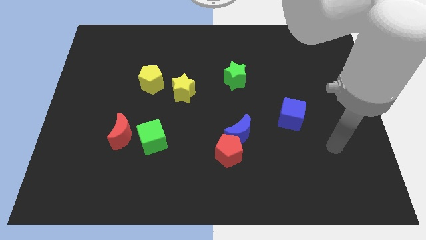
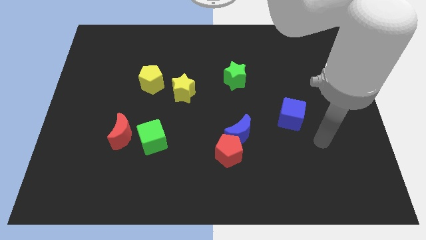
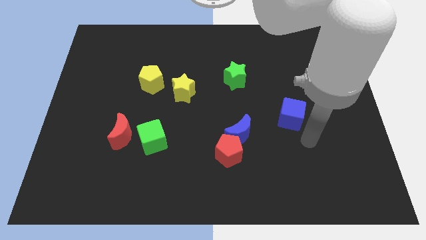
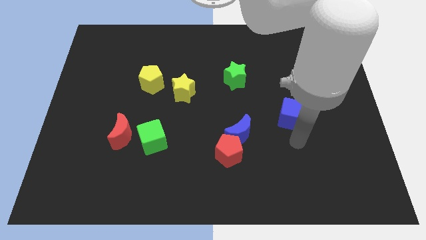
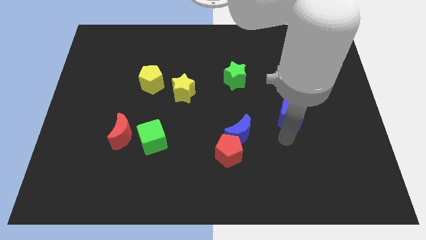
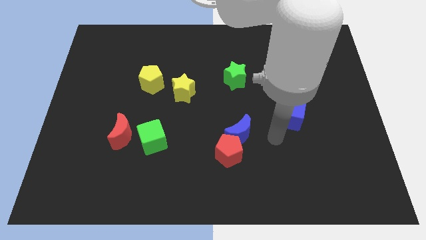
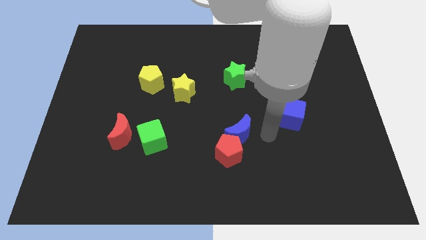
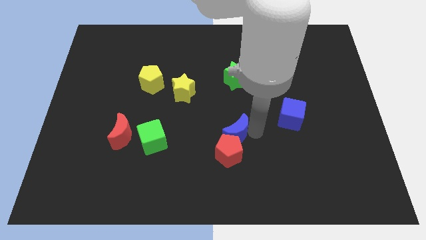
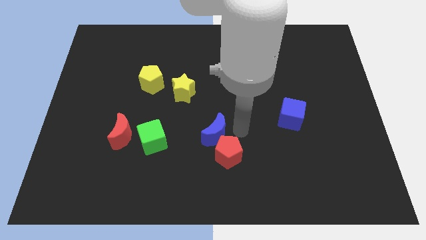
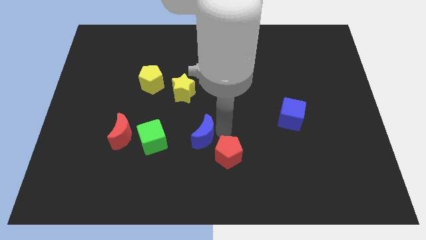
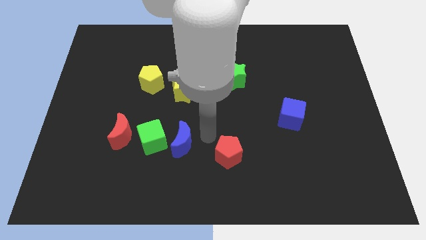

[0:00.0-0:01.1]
separate the red pentagon from the blue moon

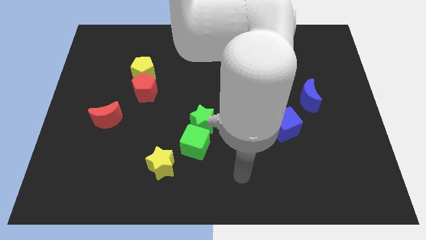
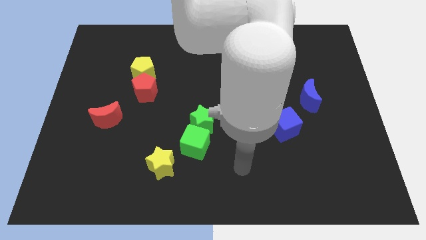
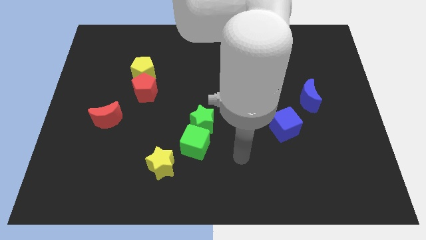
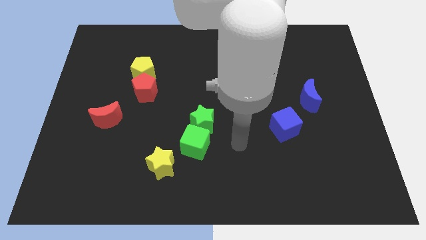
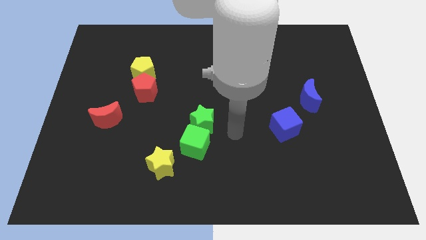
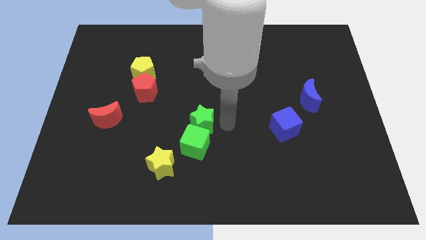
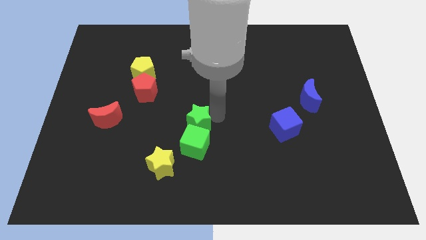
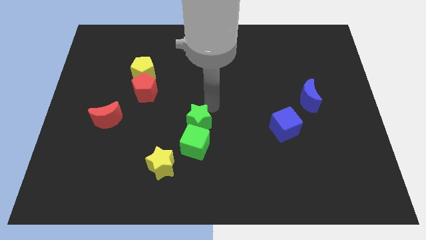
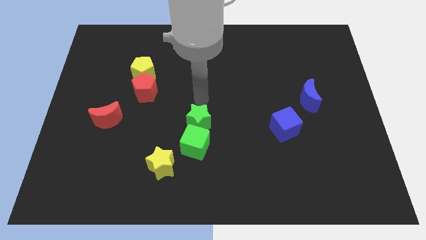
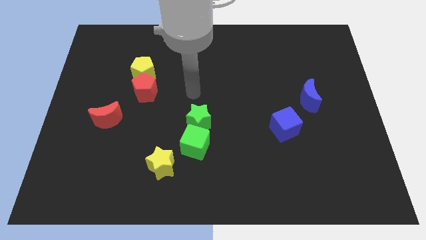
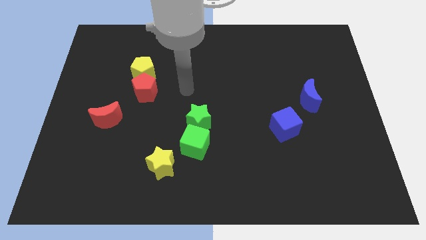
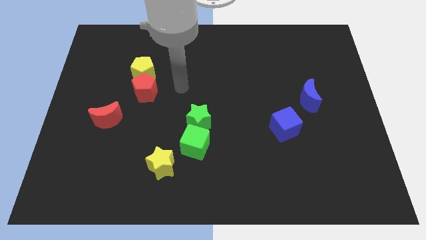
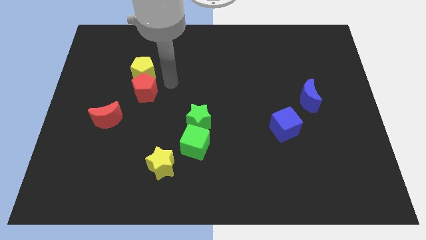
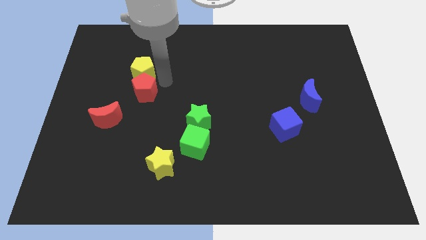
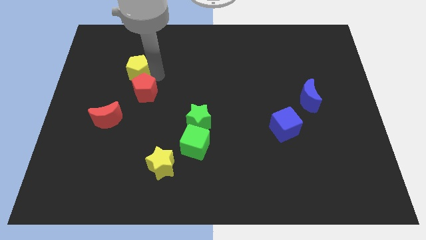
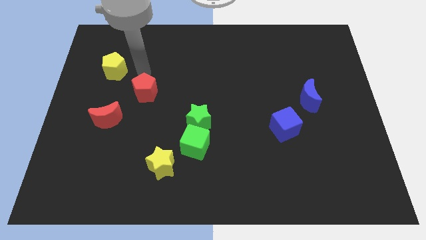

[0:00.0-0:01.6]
move the red pentagon away from the yellow pentagon

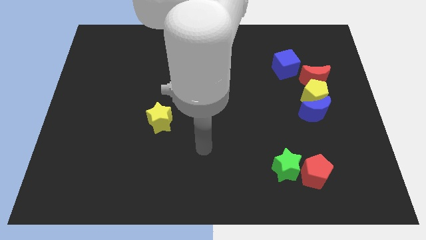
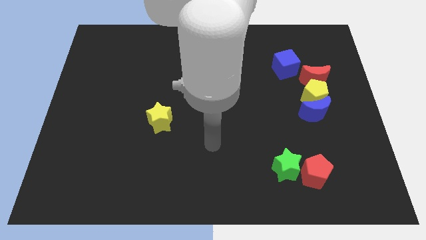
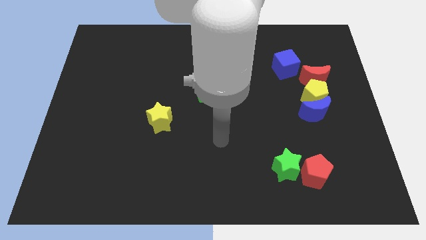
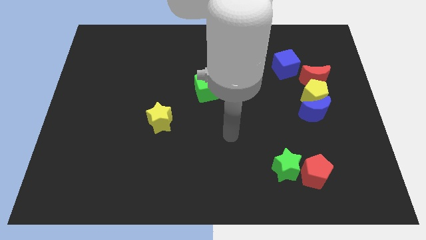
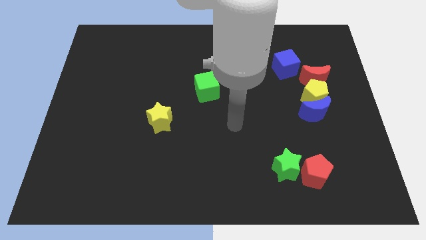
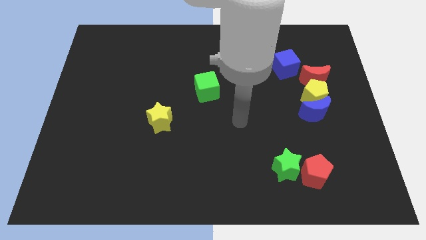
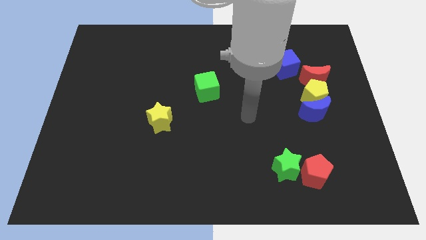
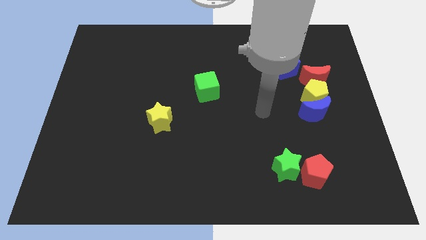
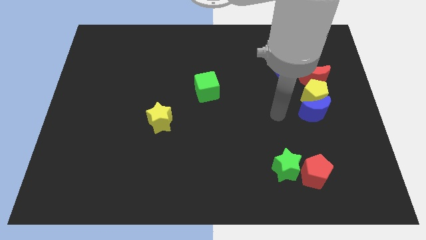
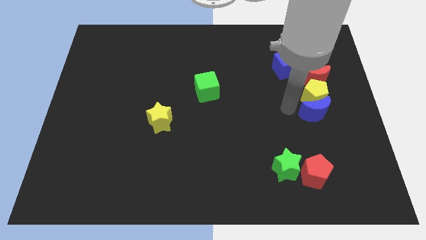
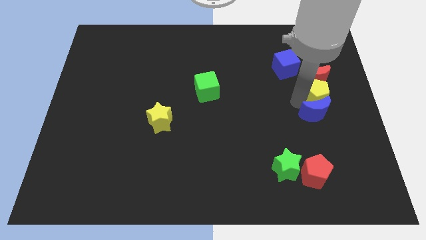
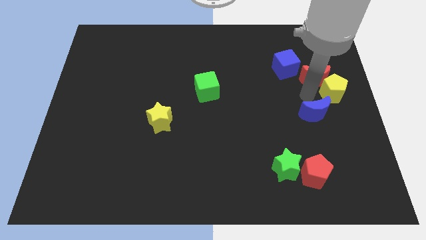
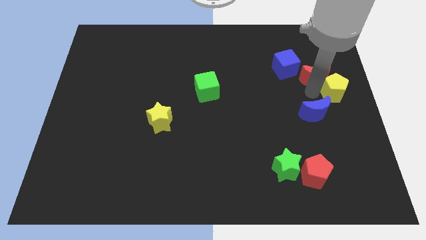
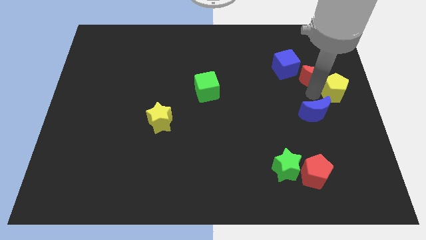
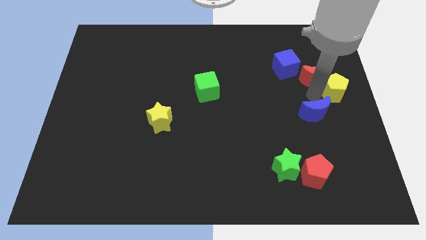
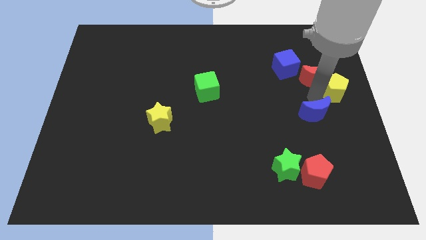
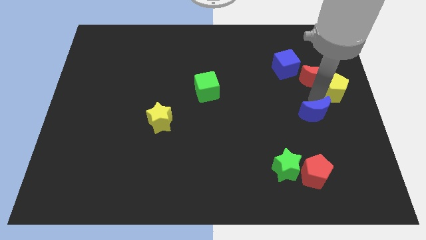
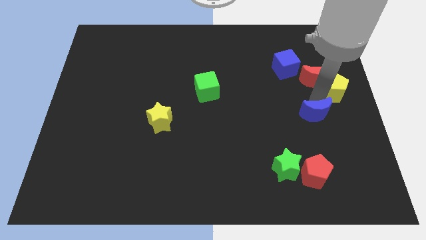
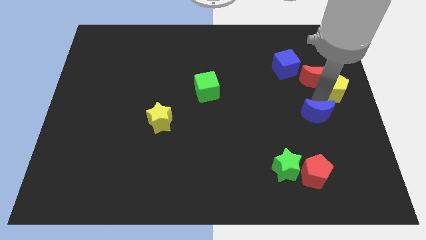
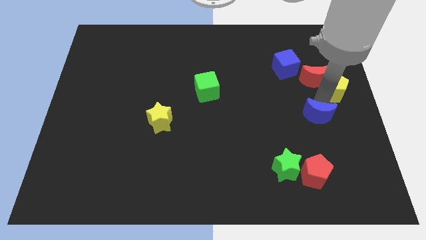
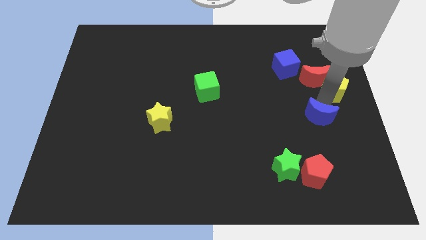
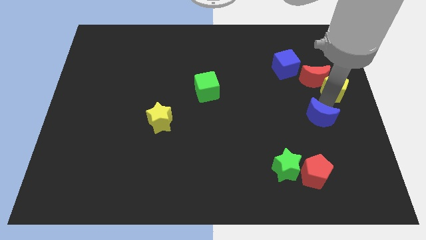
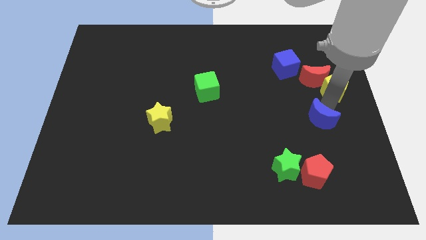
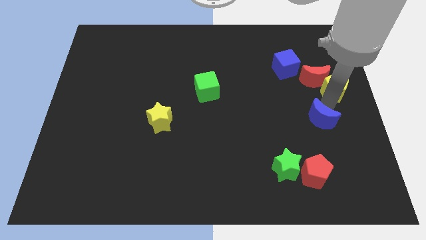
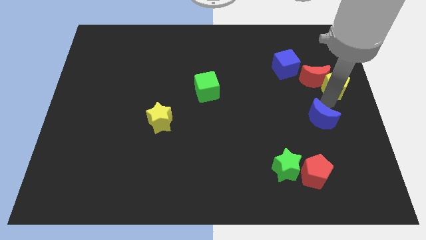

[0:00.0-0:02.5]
separate the blue moon from the yellow pentagon

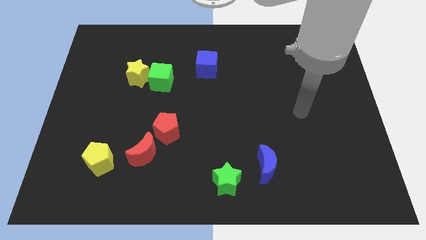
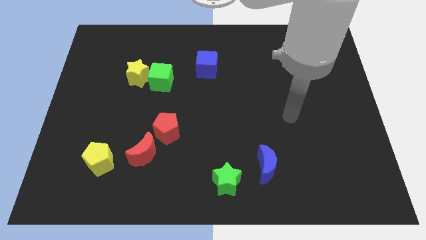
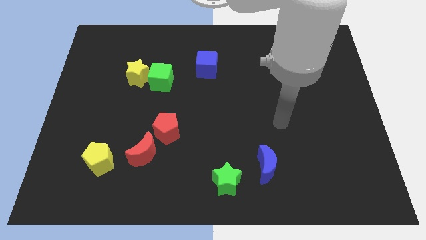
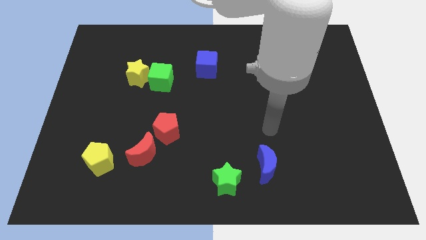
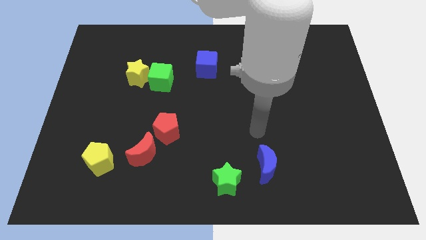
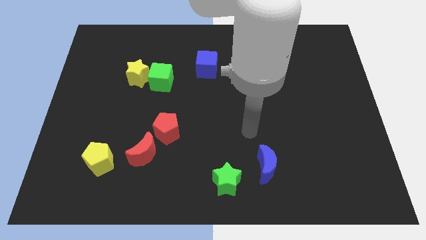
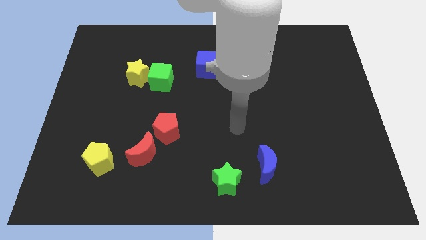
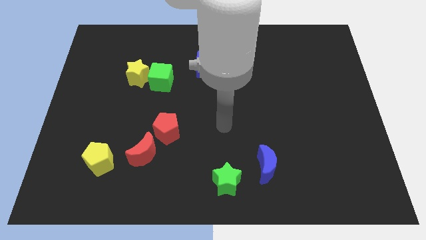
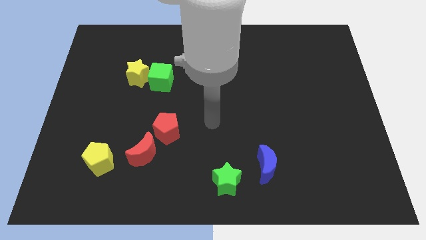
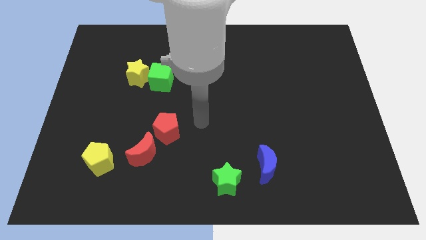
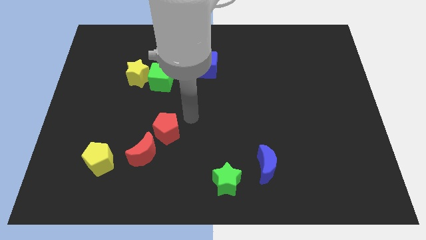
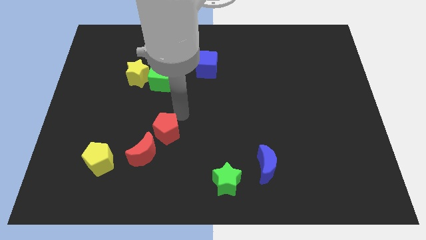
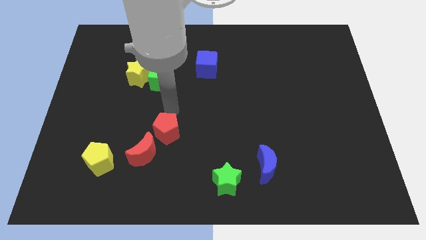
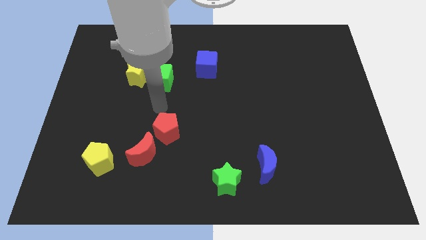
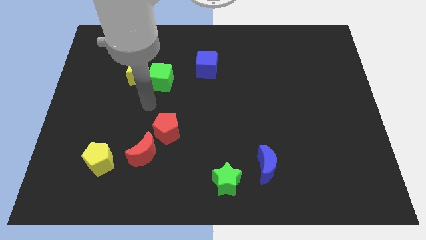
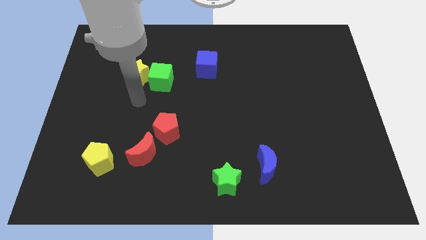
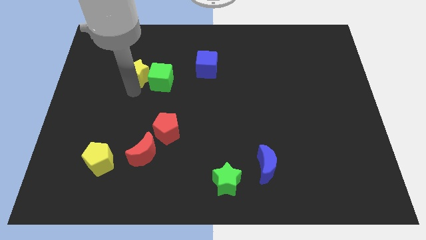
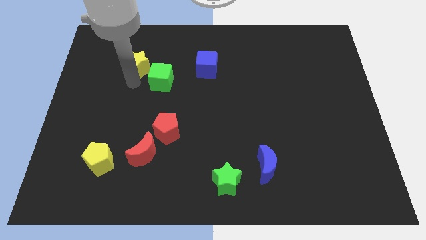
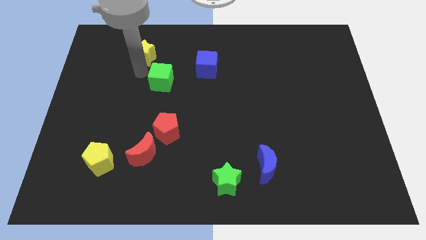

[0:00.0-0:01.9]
pull the green cube apart from the yellow star

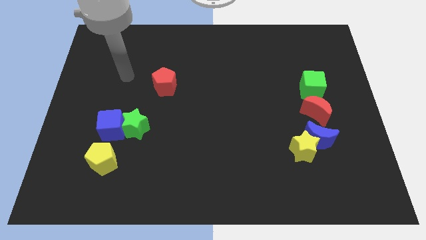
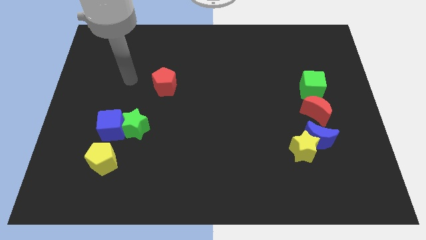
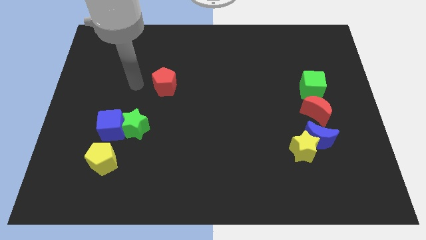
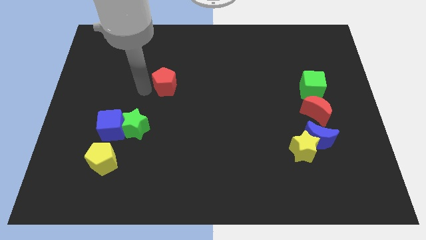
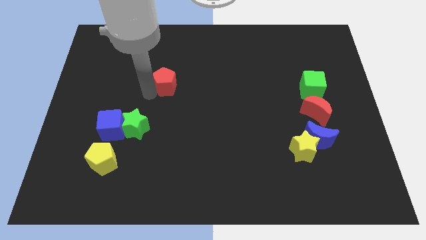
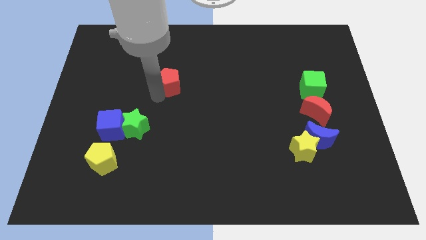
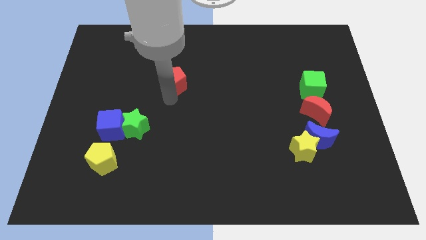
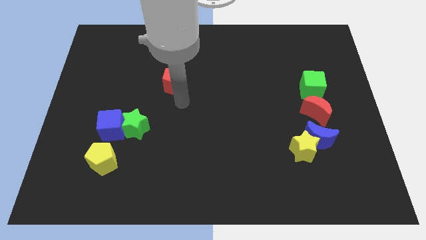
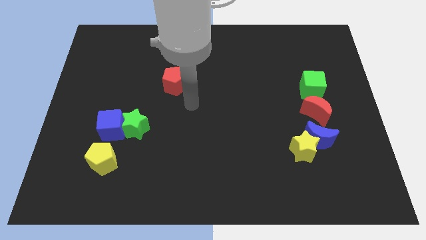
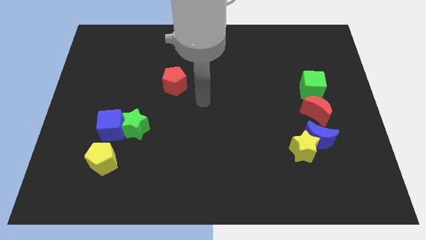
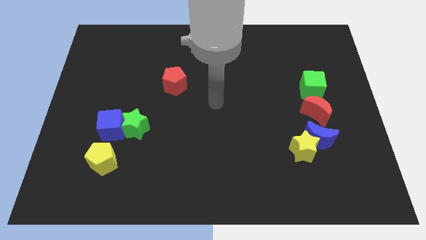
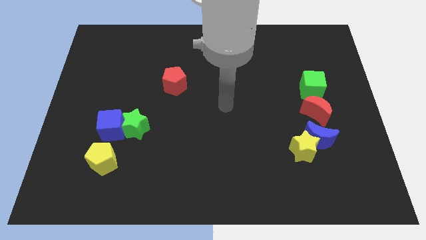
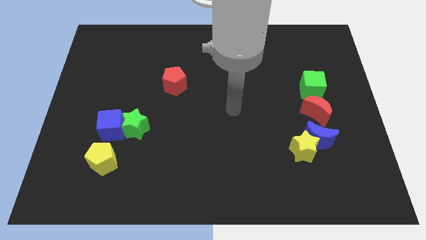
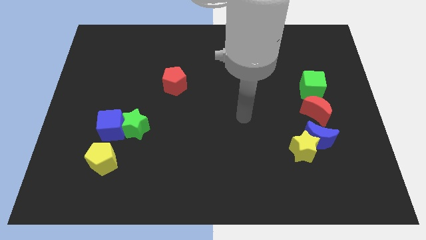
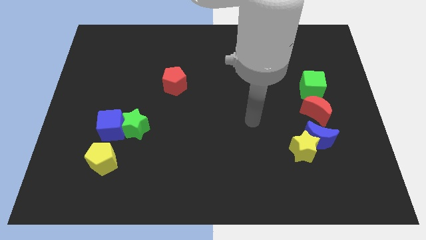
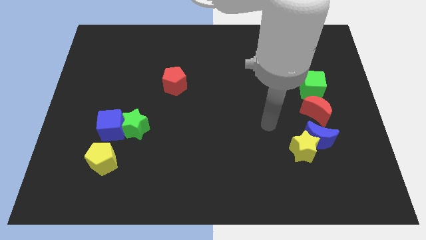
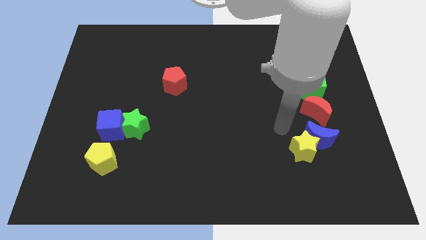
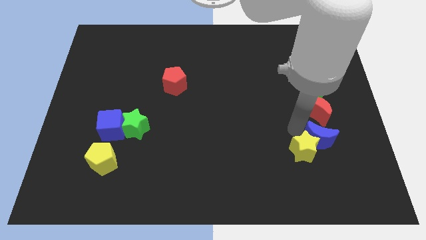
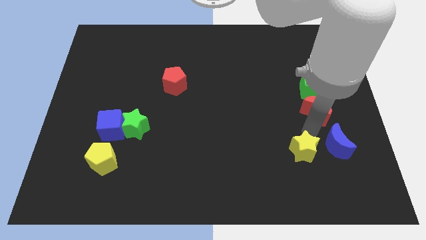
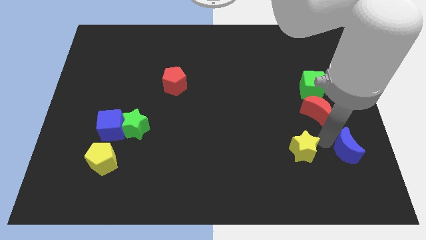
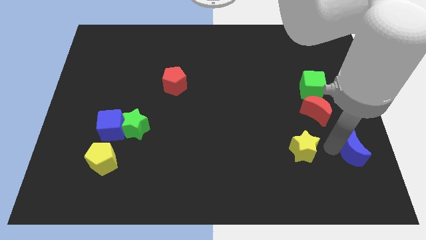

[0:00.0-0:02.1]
move the yellow star away from the blue moon
